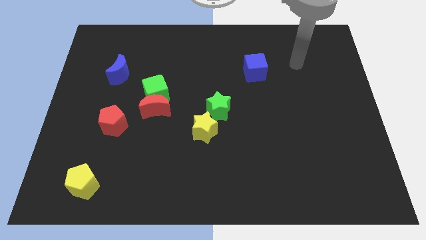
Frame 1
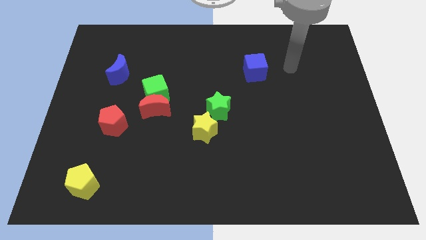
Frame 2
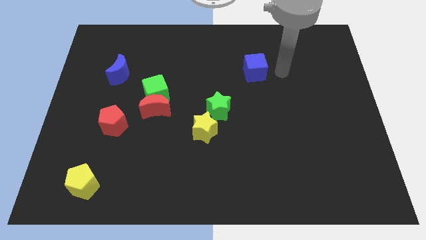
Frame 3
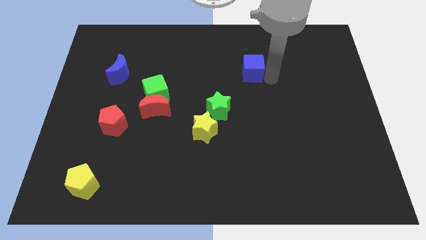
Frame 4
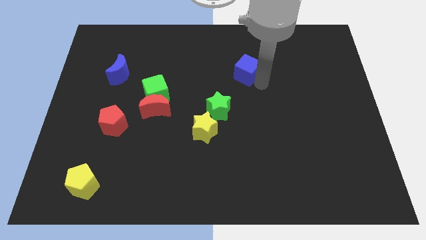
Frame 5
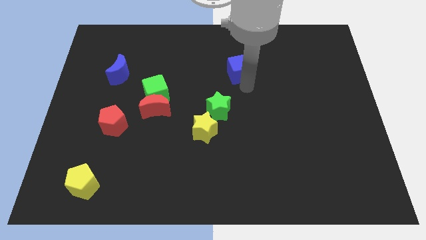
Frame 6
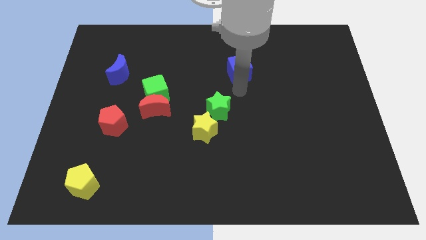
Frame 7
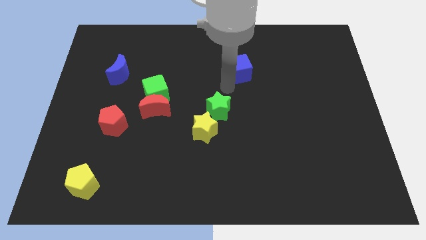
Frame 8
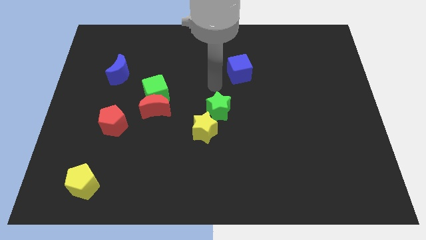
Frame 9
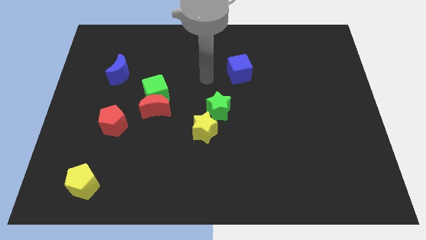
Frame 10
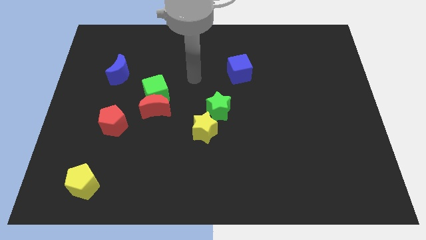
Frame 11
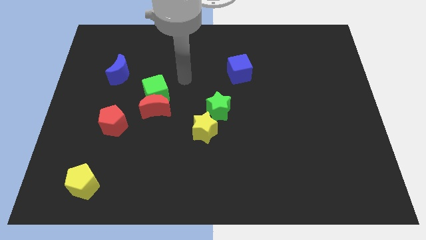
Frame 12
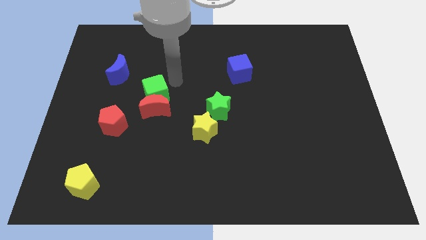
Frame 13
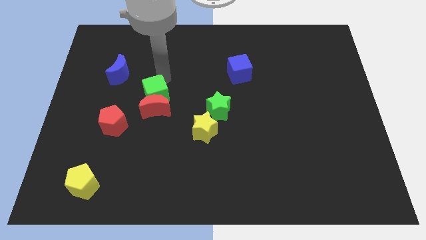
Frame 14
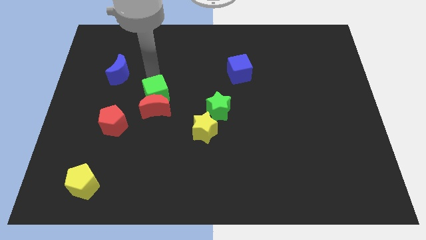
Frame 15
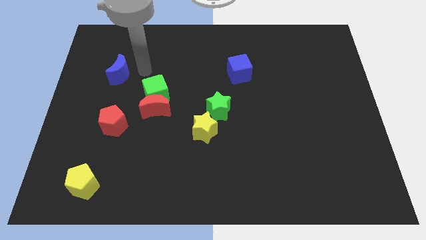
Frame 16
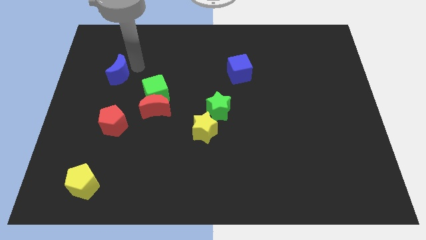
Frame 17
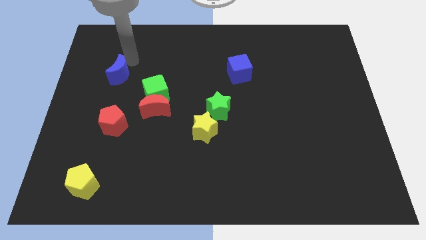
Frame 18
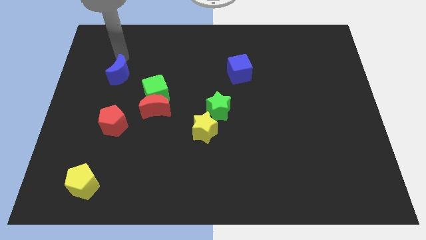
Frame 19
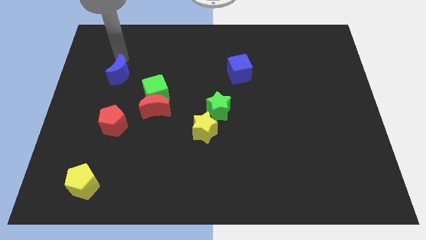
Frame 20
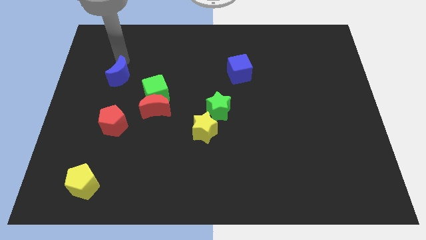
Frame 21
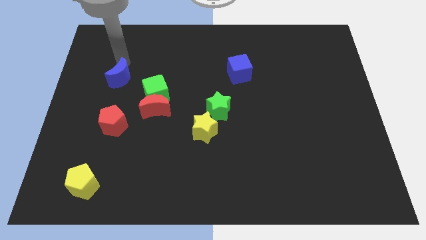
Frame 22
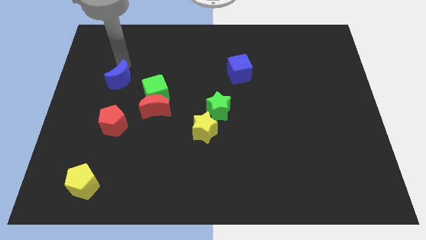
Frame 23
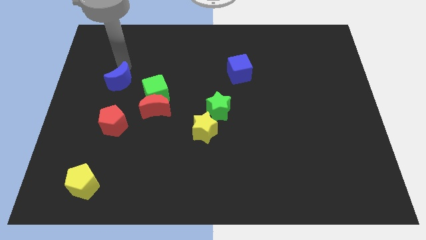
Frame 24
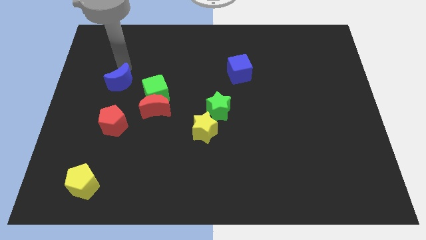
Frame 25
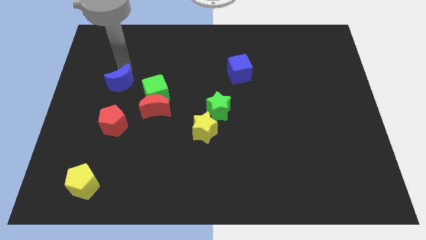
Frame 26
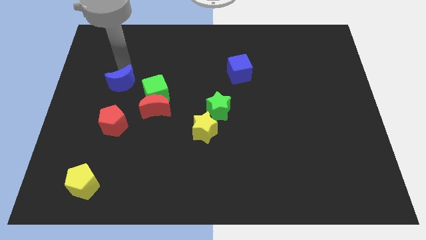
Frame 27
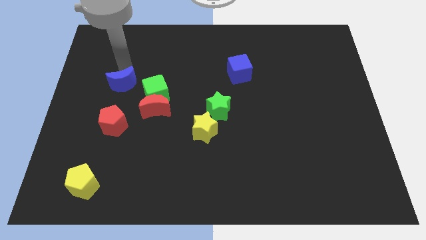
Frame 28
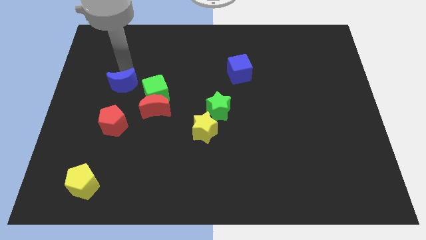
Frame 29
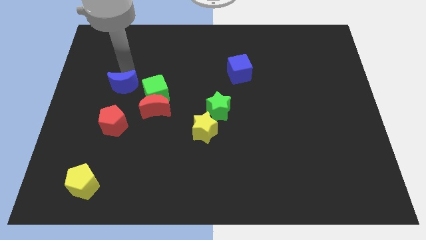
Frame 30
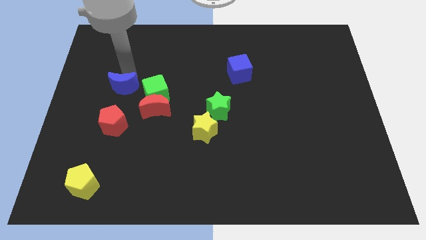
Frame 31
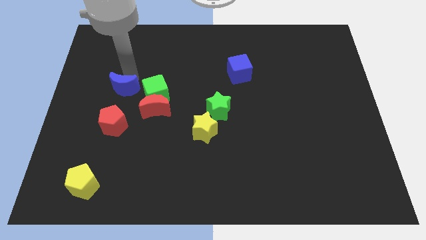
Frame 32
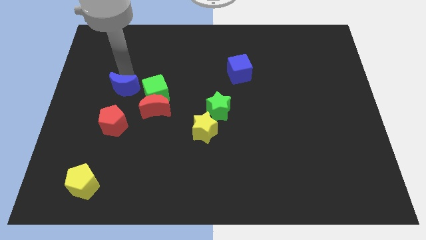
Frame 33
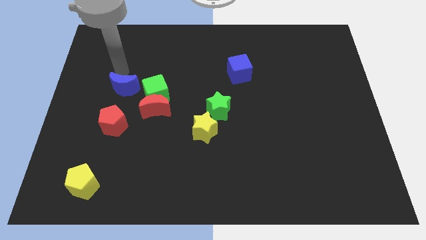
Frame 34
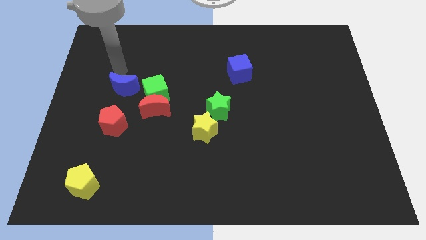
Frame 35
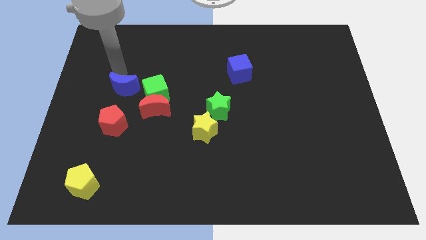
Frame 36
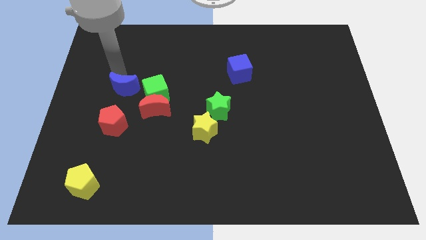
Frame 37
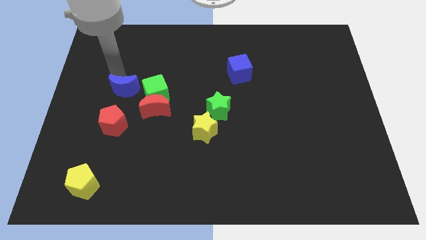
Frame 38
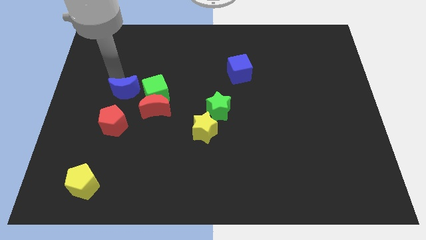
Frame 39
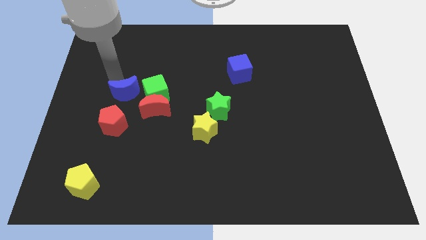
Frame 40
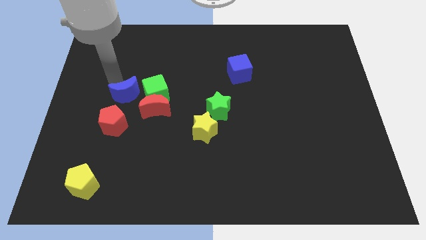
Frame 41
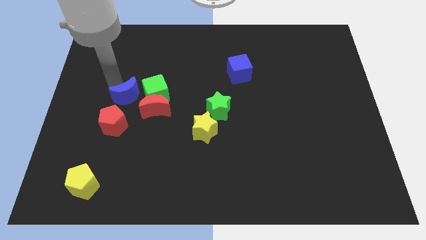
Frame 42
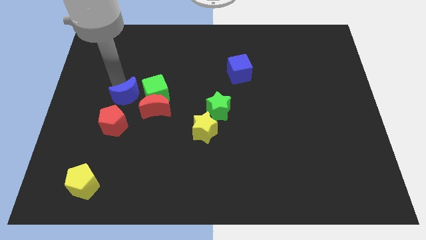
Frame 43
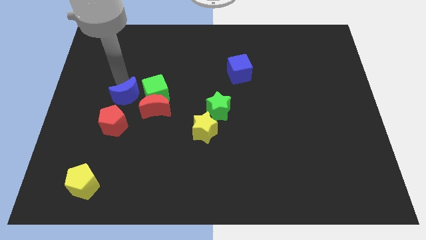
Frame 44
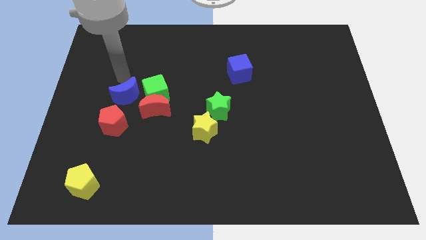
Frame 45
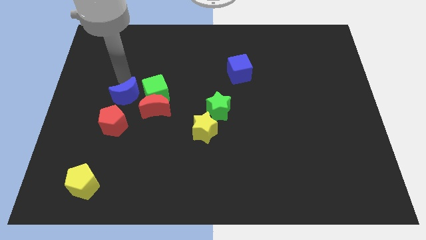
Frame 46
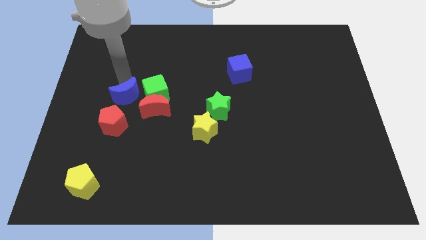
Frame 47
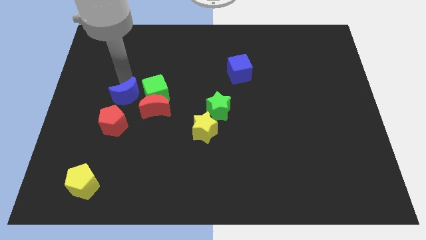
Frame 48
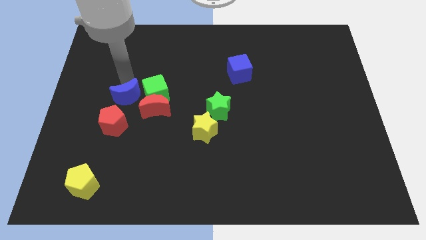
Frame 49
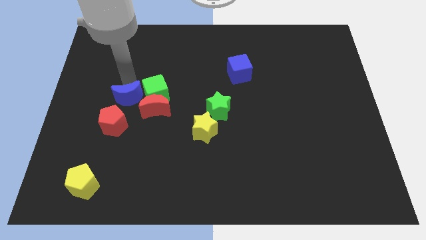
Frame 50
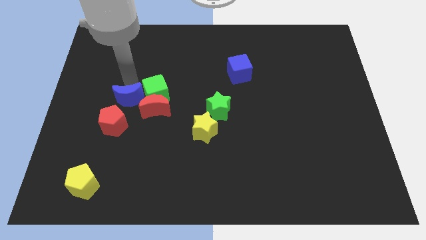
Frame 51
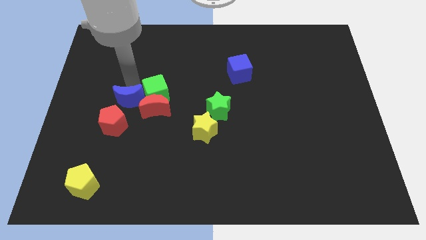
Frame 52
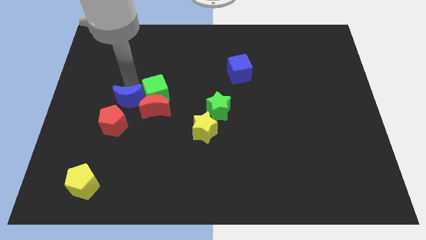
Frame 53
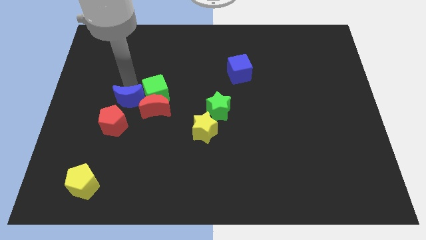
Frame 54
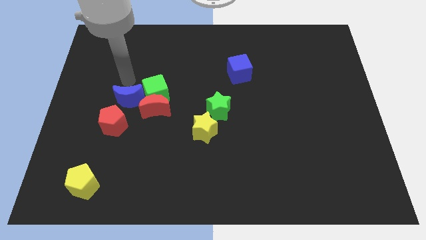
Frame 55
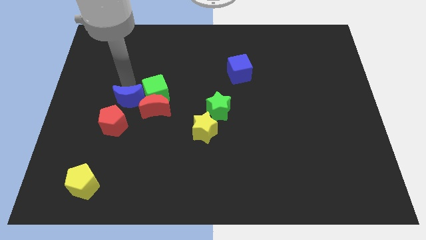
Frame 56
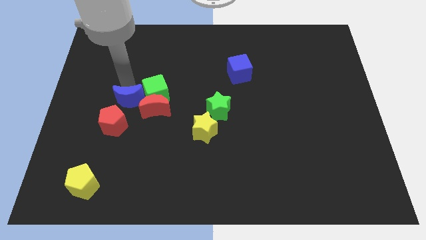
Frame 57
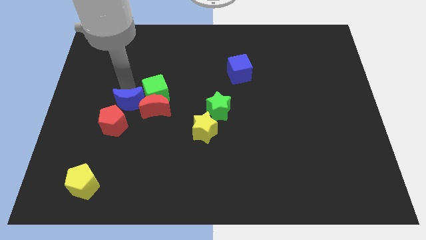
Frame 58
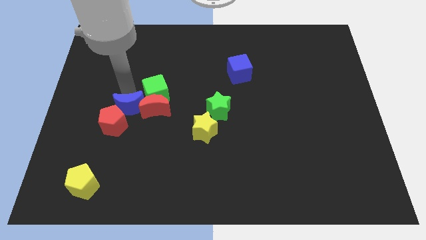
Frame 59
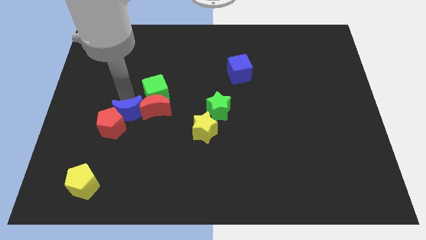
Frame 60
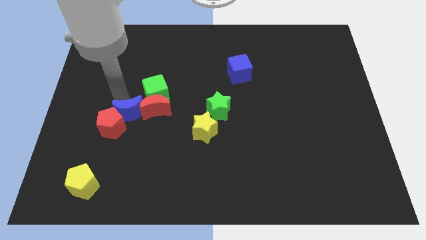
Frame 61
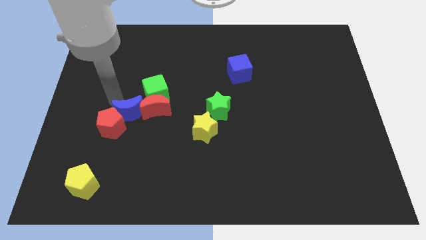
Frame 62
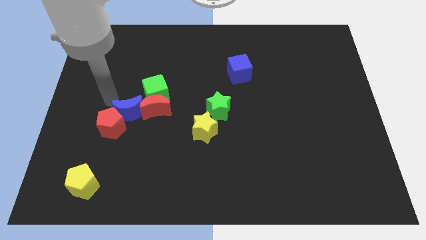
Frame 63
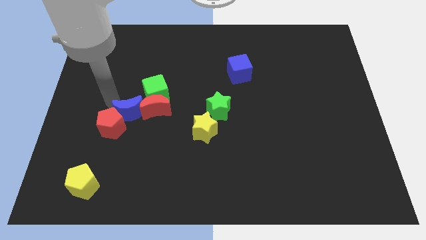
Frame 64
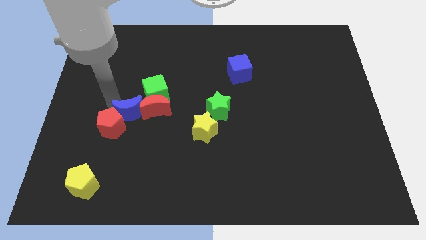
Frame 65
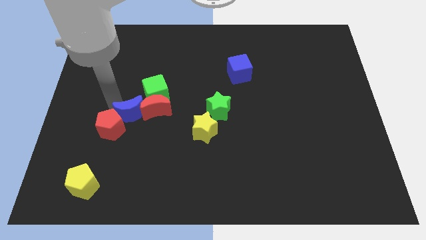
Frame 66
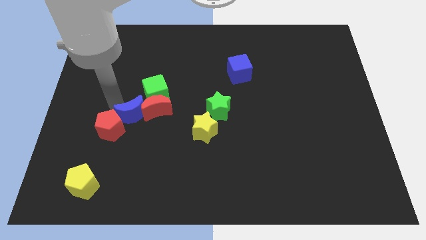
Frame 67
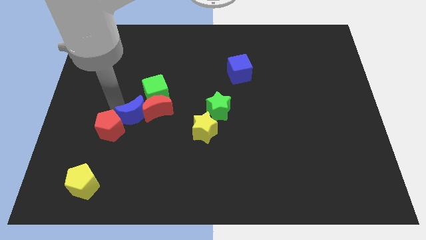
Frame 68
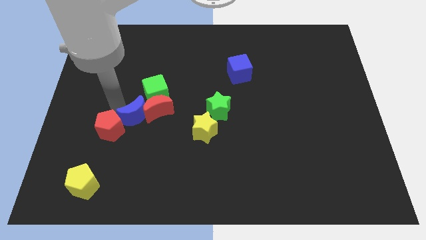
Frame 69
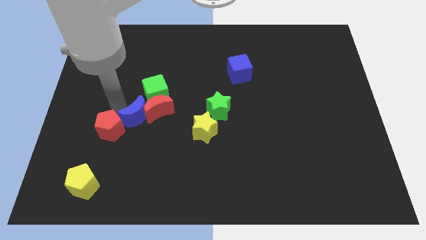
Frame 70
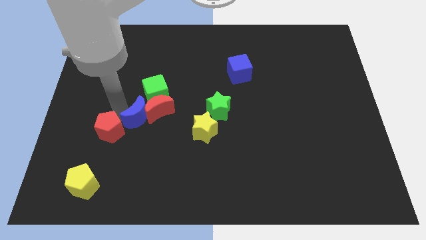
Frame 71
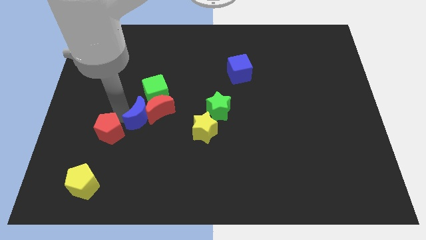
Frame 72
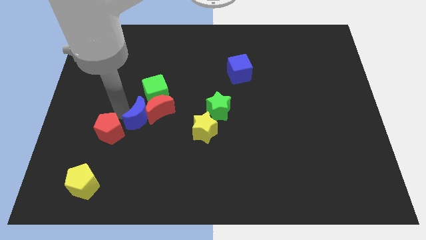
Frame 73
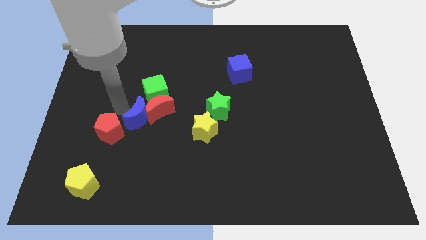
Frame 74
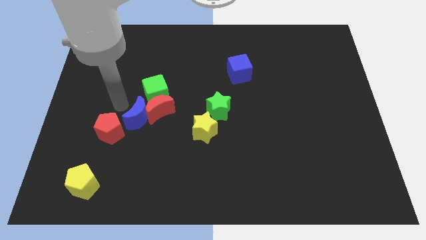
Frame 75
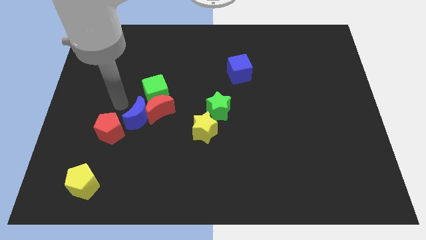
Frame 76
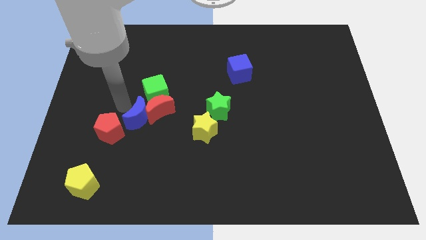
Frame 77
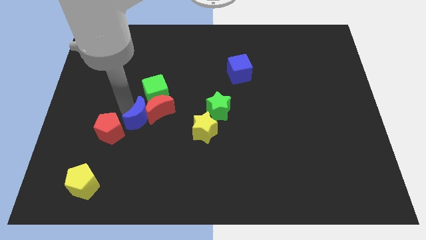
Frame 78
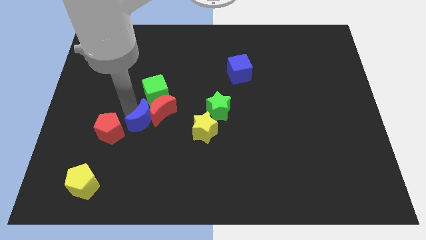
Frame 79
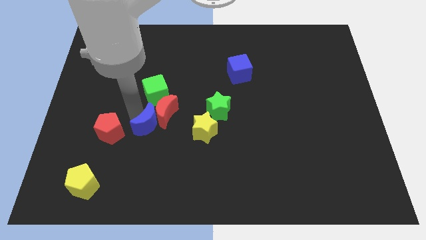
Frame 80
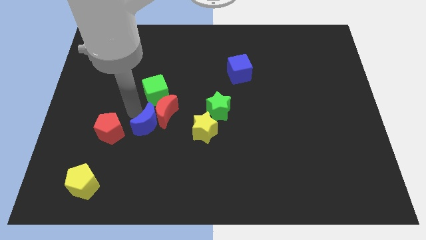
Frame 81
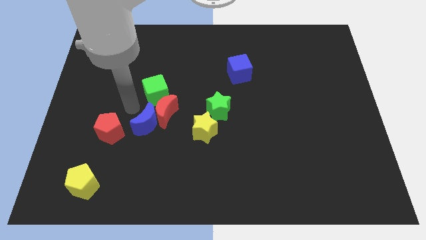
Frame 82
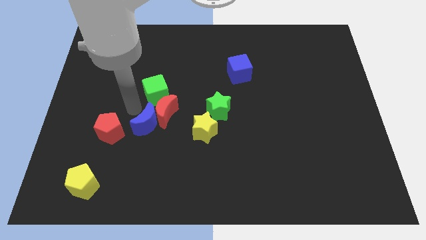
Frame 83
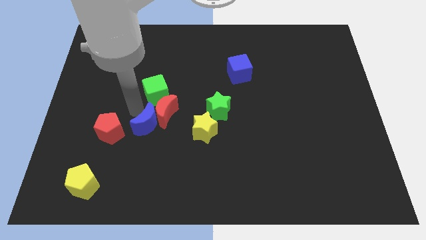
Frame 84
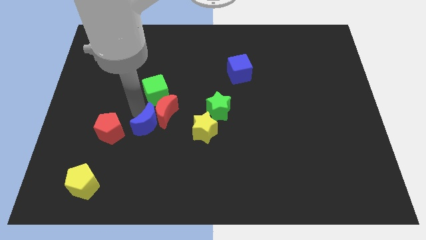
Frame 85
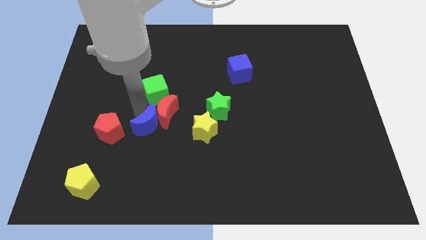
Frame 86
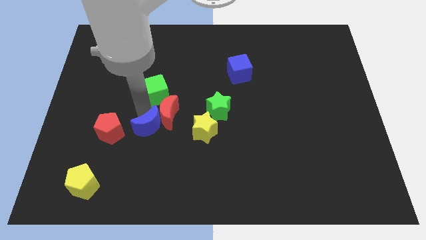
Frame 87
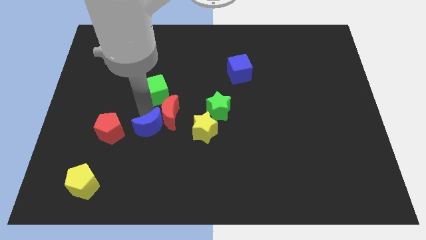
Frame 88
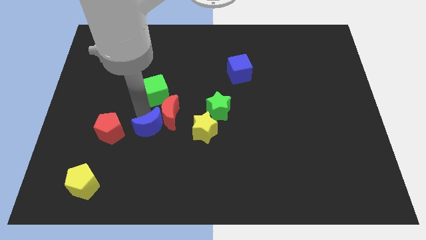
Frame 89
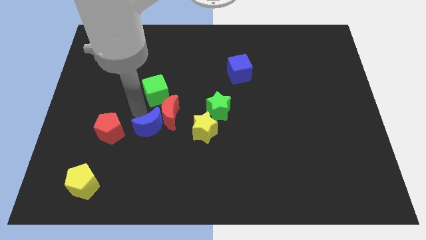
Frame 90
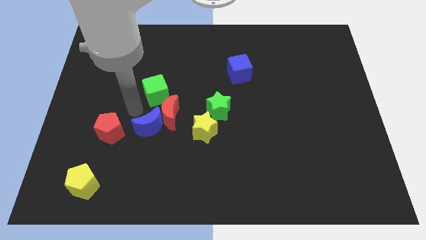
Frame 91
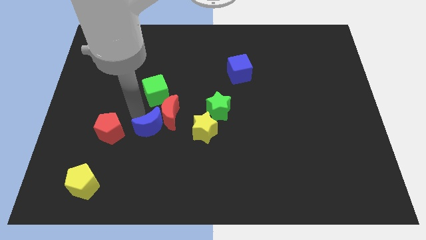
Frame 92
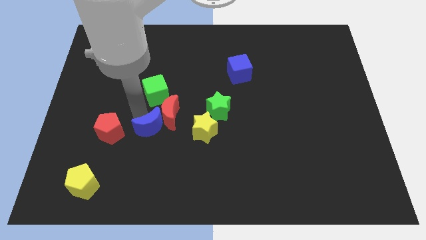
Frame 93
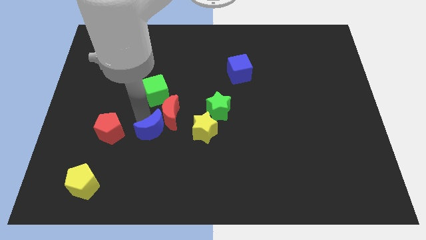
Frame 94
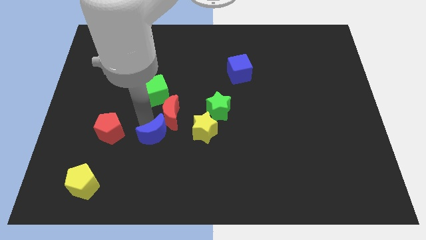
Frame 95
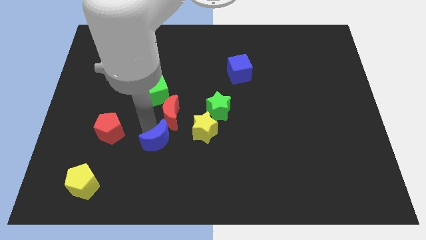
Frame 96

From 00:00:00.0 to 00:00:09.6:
slide the blue moon down and to the right diagonally
